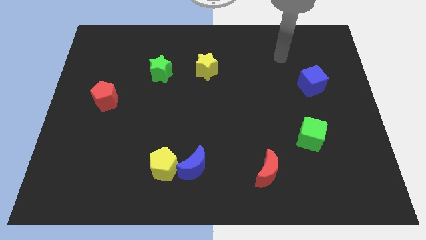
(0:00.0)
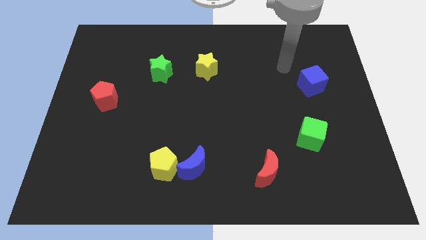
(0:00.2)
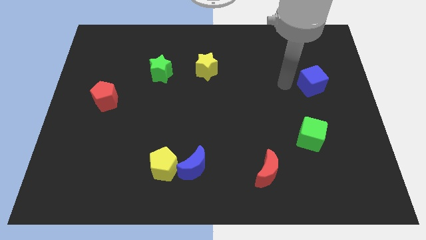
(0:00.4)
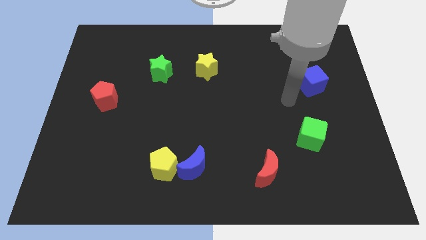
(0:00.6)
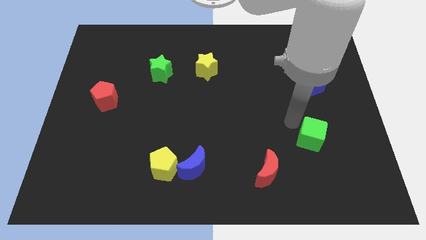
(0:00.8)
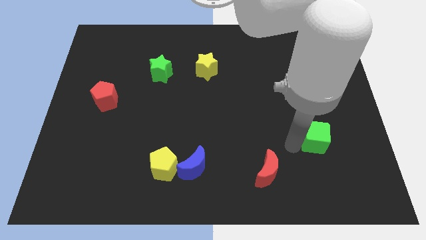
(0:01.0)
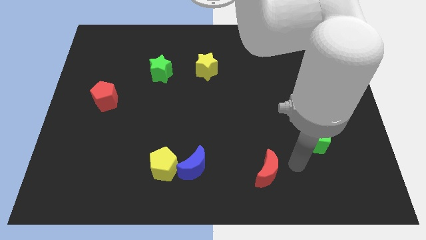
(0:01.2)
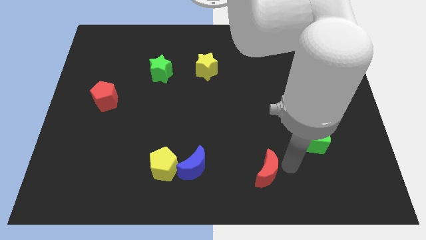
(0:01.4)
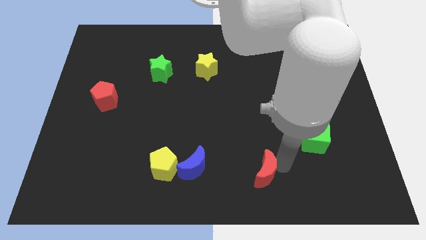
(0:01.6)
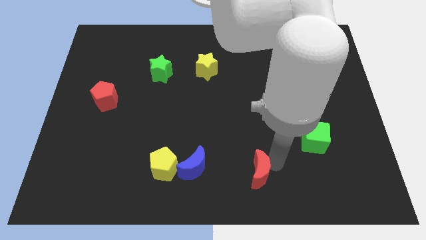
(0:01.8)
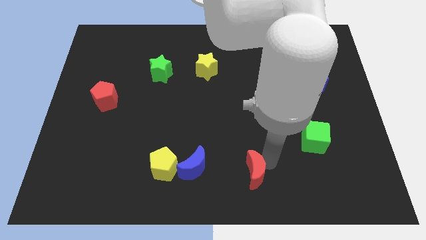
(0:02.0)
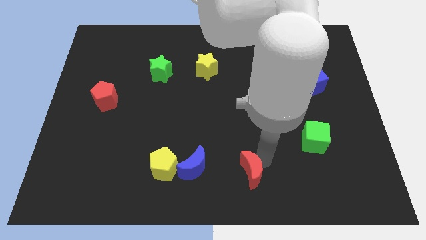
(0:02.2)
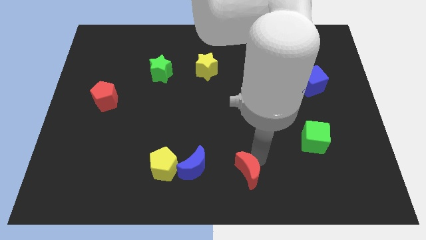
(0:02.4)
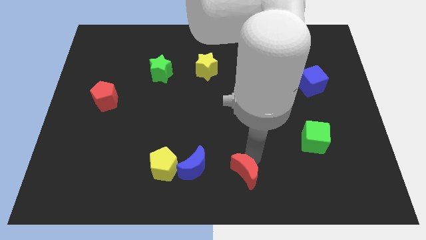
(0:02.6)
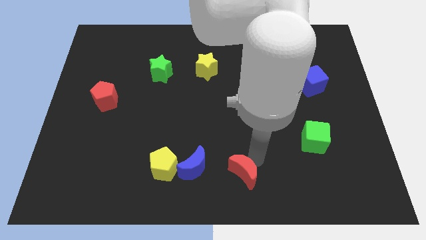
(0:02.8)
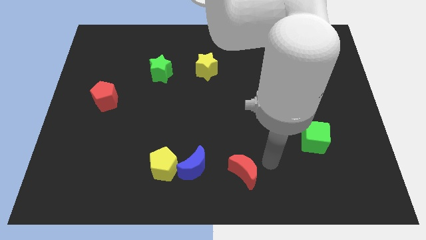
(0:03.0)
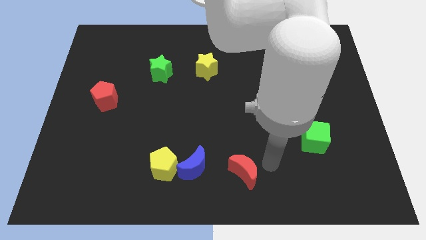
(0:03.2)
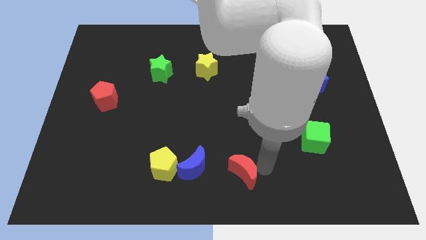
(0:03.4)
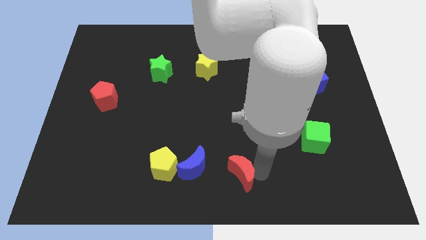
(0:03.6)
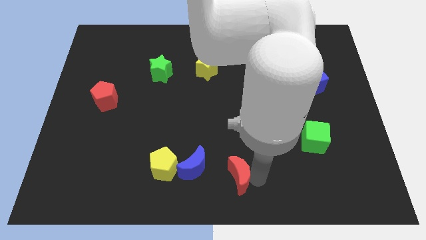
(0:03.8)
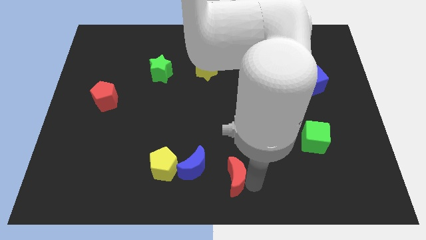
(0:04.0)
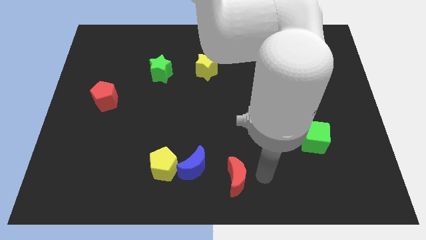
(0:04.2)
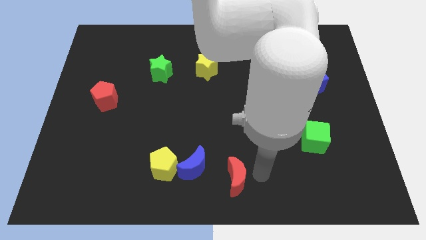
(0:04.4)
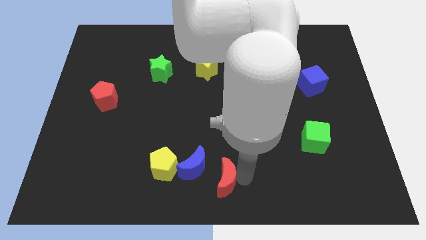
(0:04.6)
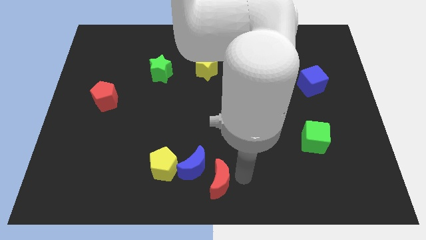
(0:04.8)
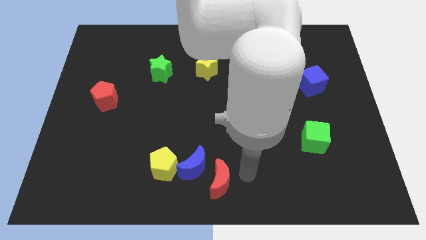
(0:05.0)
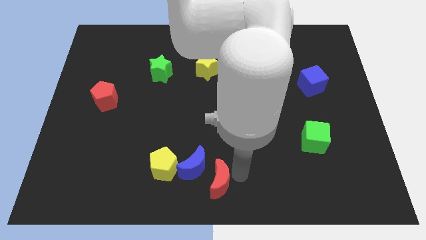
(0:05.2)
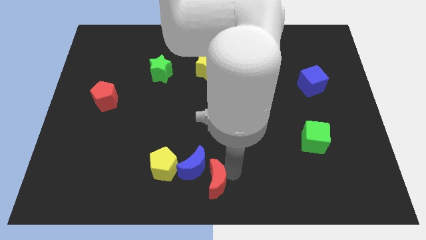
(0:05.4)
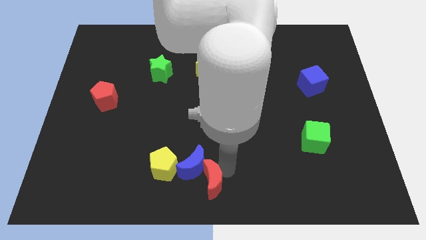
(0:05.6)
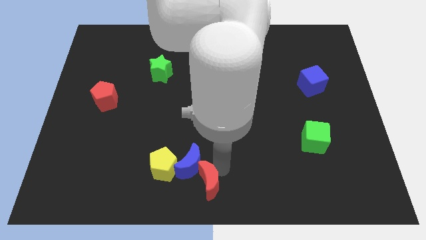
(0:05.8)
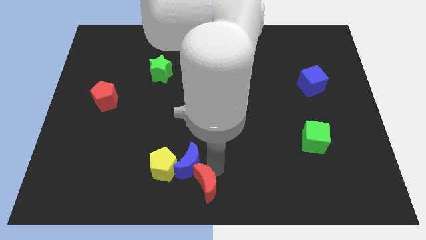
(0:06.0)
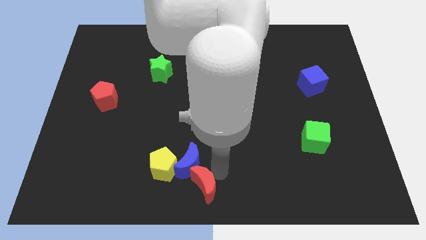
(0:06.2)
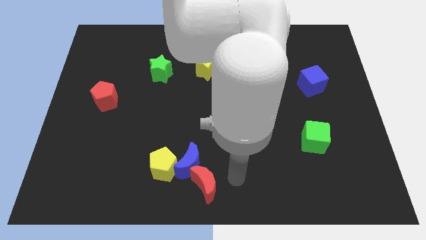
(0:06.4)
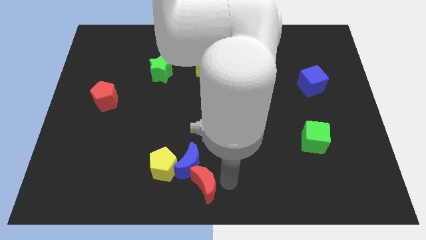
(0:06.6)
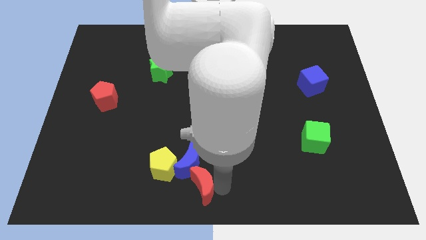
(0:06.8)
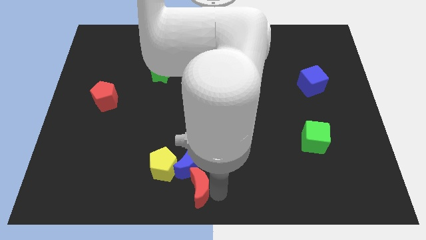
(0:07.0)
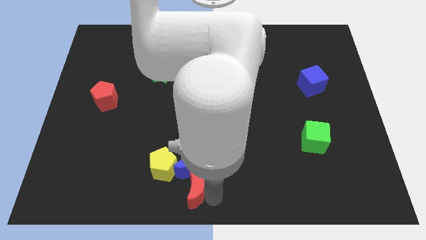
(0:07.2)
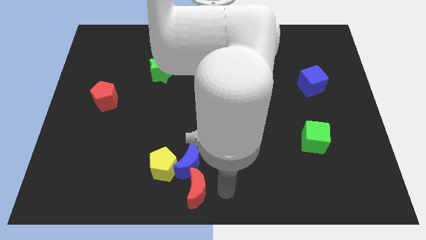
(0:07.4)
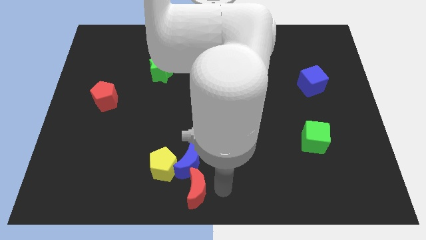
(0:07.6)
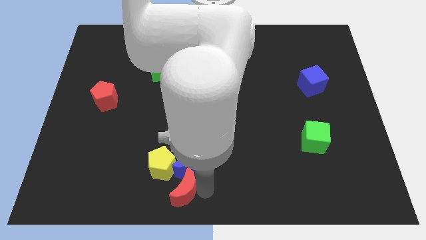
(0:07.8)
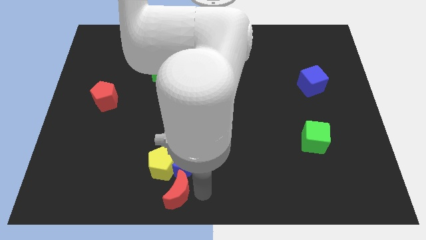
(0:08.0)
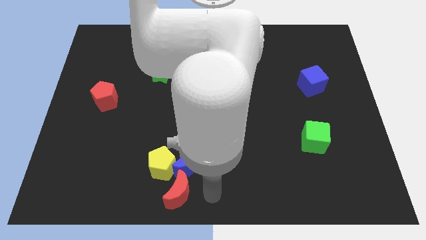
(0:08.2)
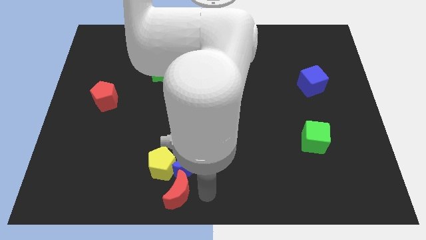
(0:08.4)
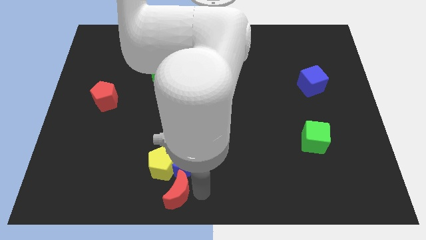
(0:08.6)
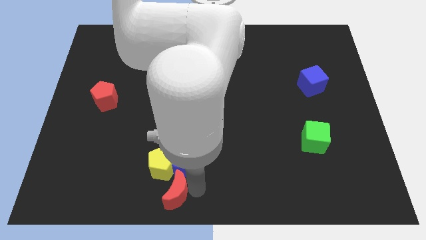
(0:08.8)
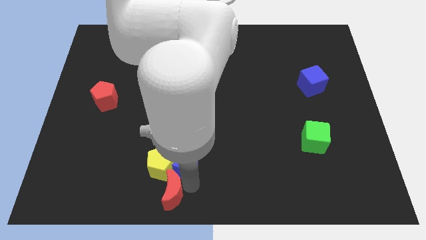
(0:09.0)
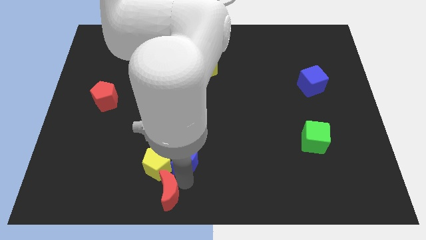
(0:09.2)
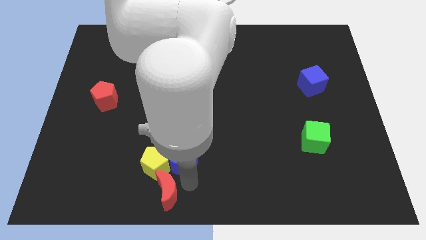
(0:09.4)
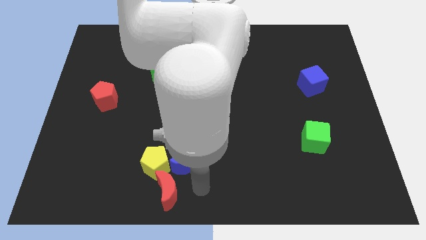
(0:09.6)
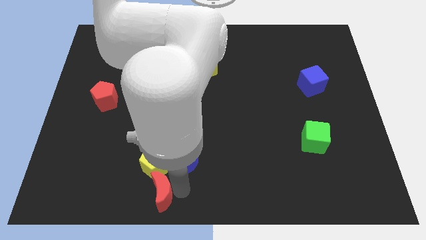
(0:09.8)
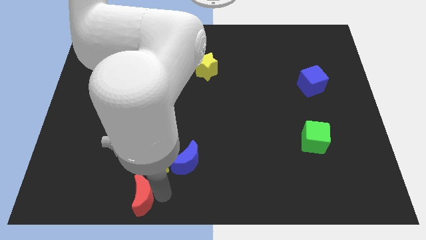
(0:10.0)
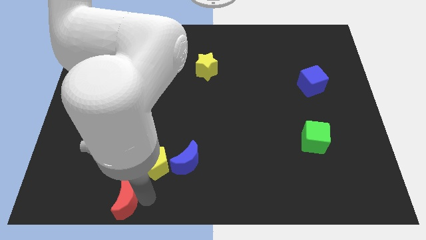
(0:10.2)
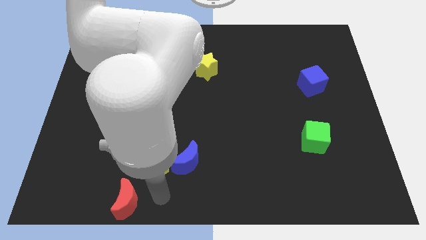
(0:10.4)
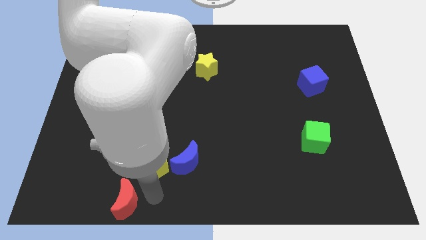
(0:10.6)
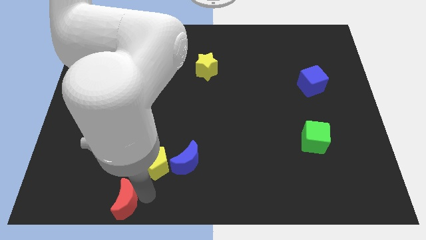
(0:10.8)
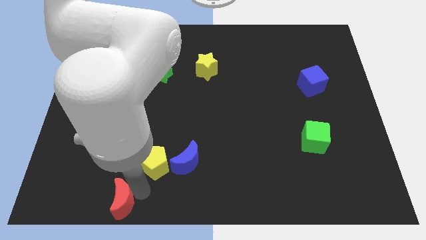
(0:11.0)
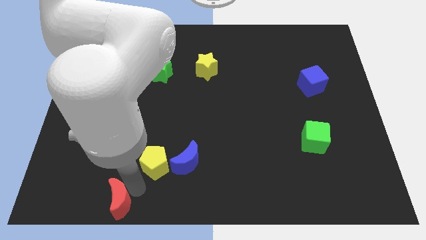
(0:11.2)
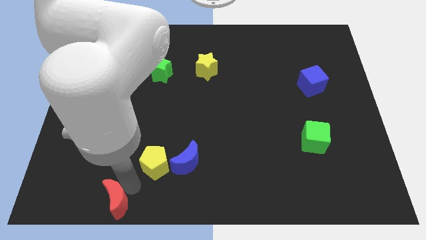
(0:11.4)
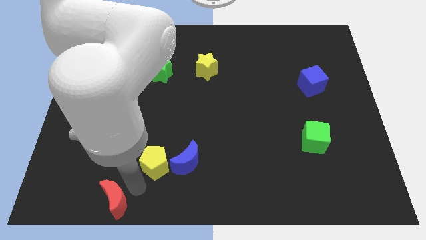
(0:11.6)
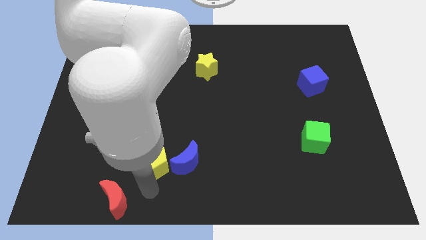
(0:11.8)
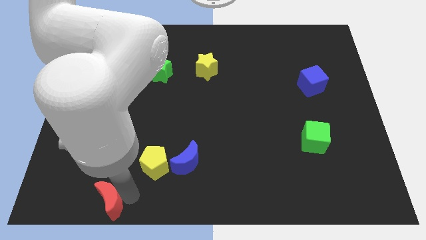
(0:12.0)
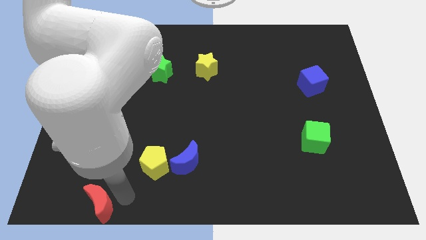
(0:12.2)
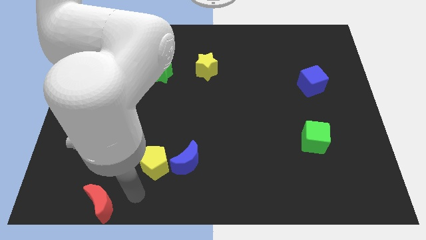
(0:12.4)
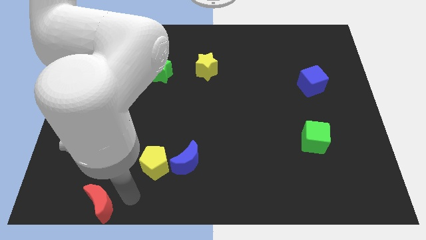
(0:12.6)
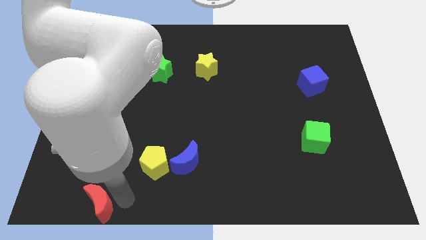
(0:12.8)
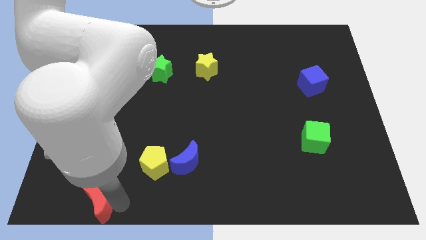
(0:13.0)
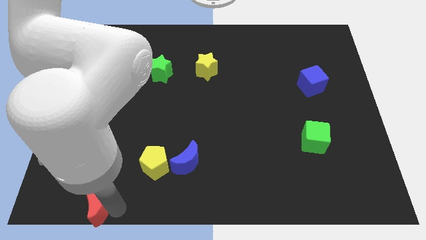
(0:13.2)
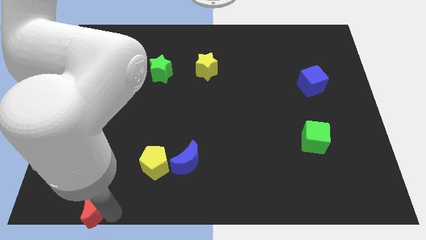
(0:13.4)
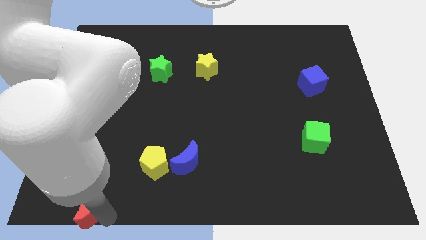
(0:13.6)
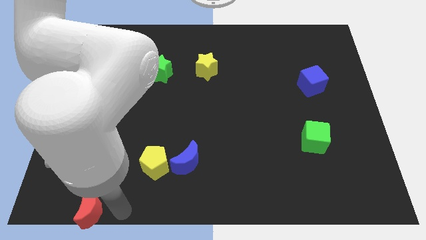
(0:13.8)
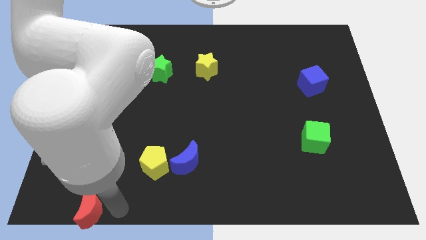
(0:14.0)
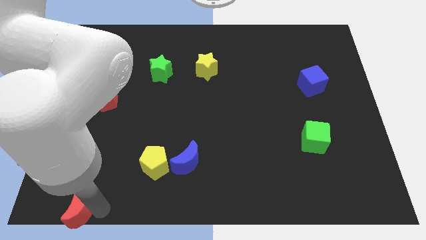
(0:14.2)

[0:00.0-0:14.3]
put the red moon to the lower left corner

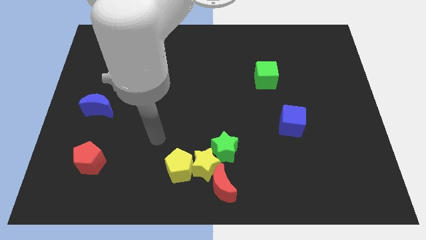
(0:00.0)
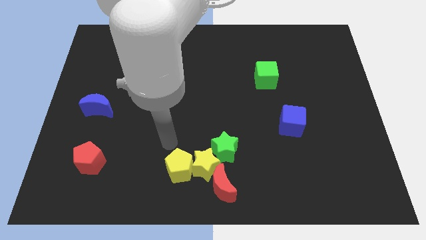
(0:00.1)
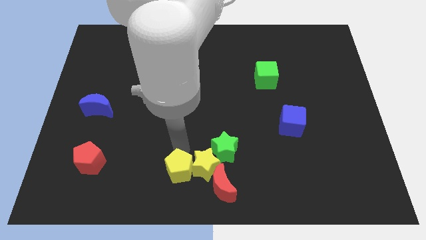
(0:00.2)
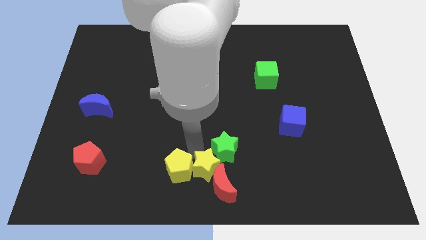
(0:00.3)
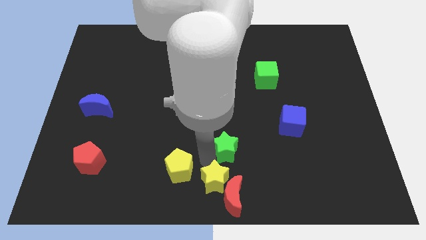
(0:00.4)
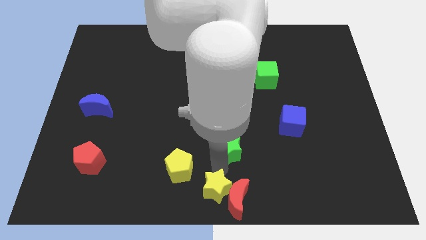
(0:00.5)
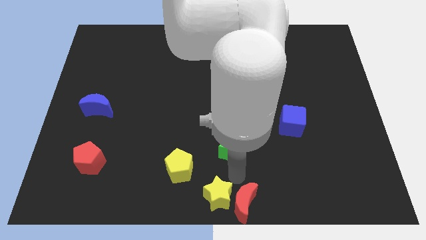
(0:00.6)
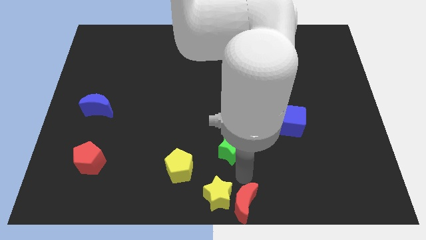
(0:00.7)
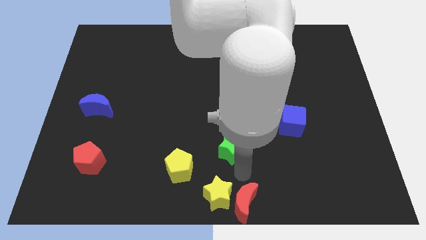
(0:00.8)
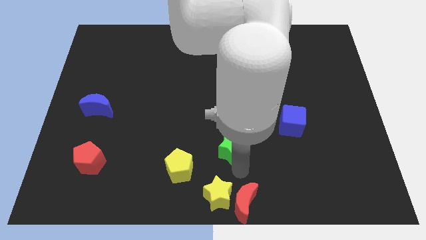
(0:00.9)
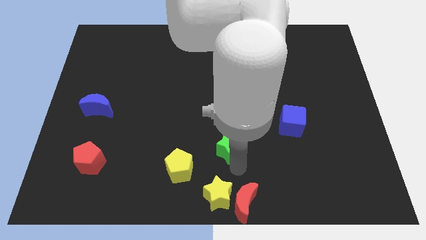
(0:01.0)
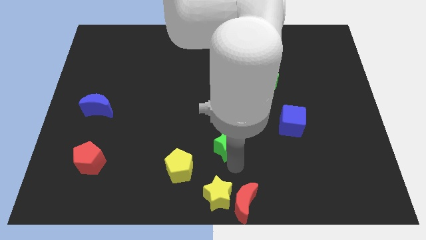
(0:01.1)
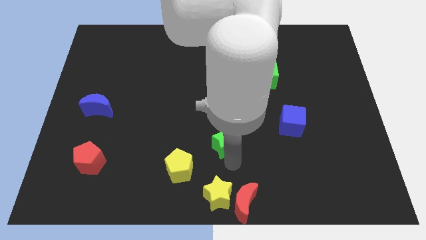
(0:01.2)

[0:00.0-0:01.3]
put the green star to the middle
